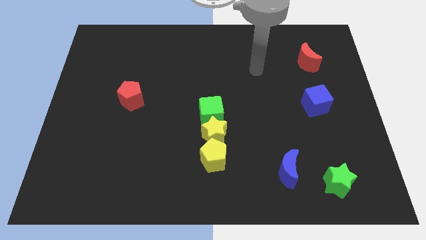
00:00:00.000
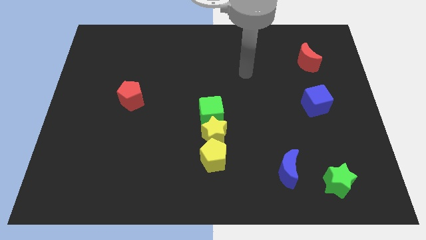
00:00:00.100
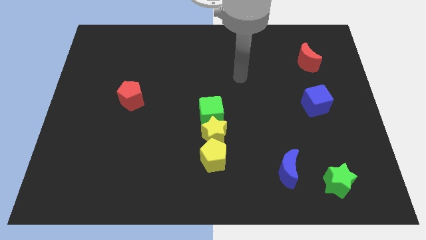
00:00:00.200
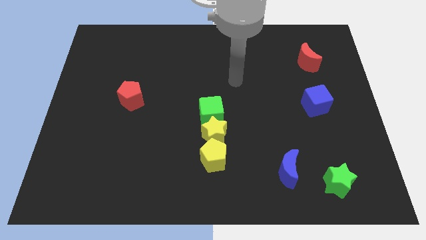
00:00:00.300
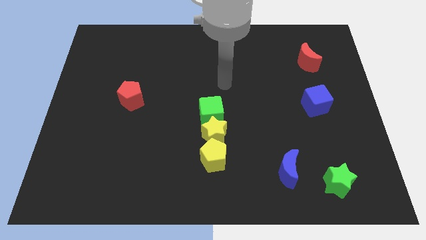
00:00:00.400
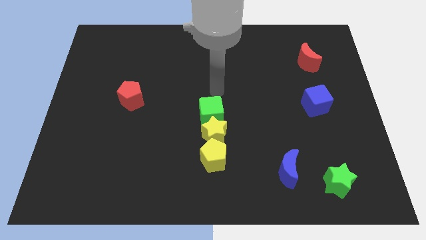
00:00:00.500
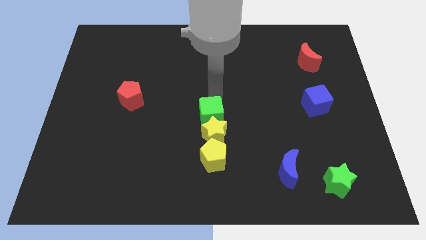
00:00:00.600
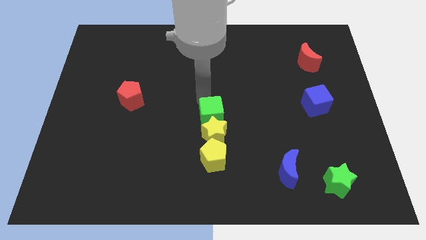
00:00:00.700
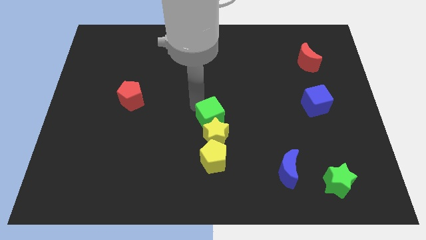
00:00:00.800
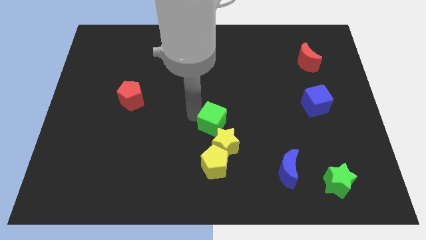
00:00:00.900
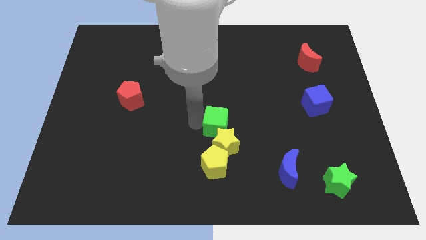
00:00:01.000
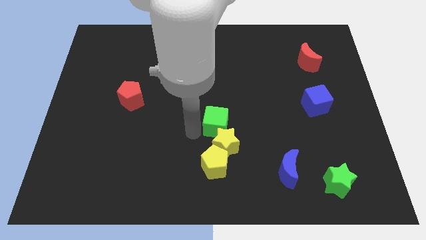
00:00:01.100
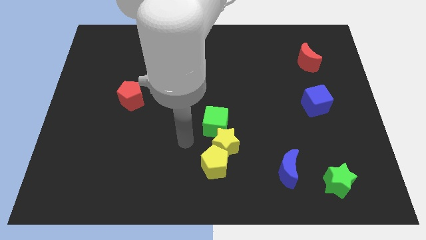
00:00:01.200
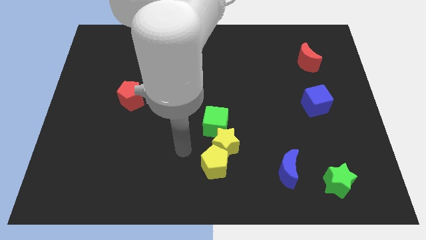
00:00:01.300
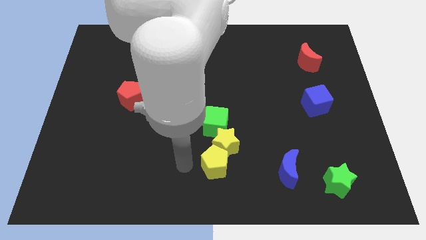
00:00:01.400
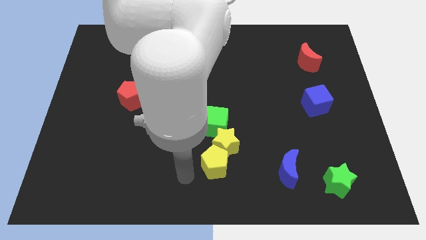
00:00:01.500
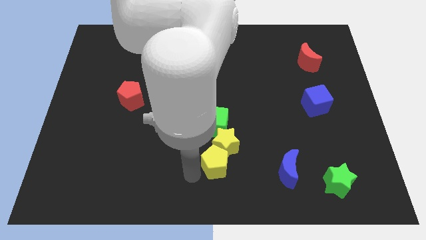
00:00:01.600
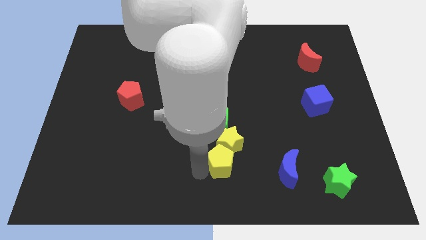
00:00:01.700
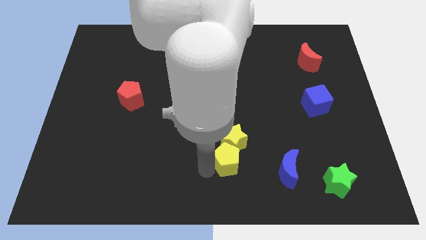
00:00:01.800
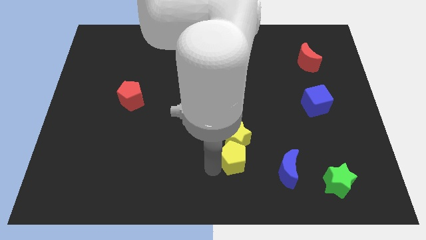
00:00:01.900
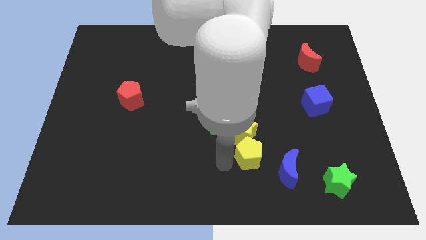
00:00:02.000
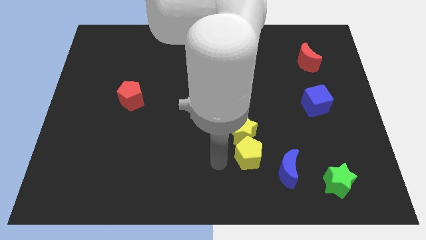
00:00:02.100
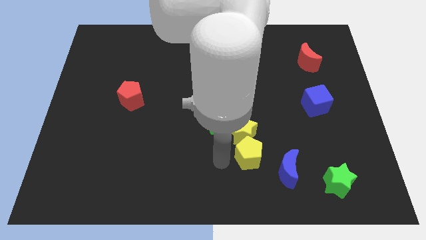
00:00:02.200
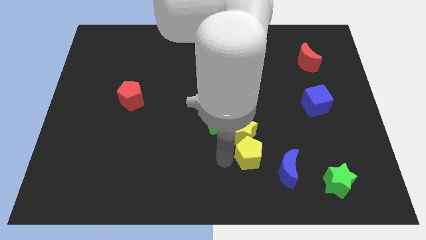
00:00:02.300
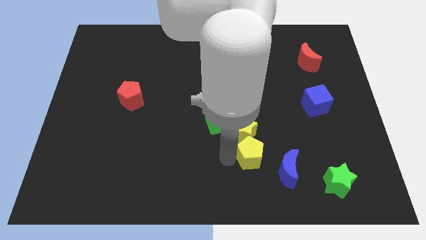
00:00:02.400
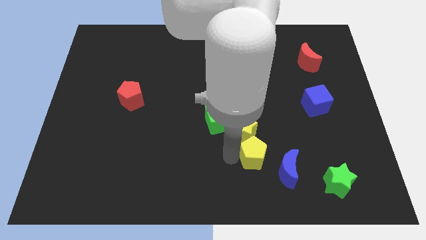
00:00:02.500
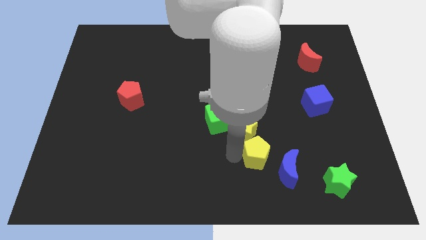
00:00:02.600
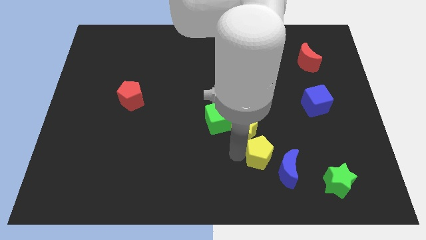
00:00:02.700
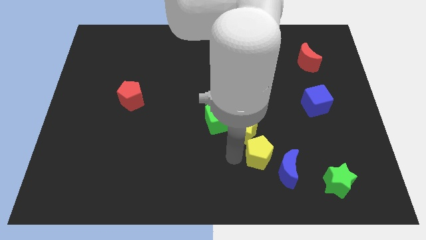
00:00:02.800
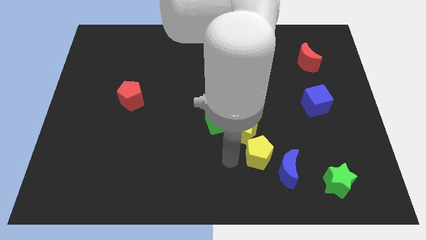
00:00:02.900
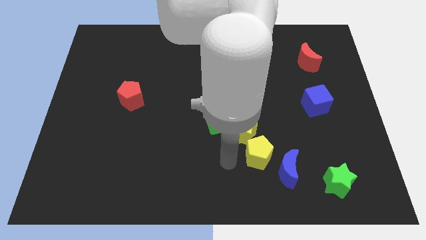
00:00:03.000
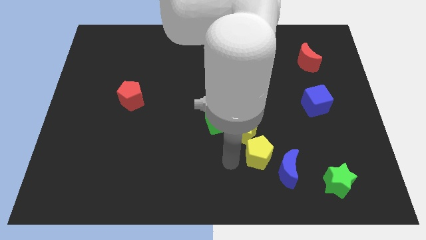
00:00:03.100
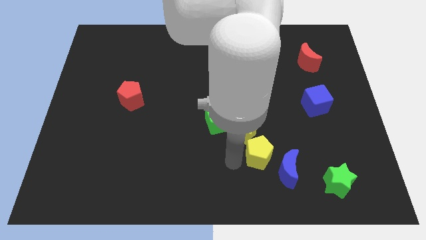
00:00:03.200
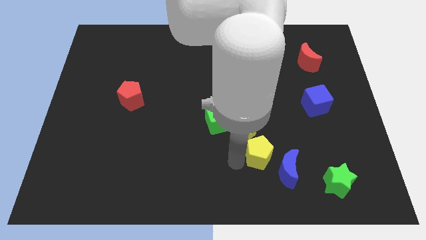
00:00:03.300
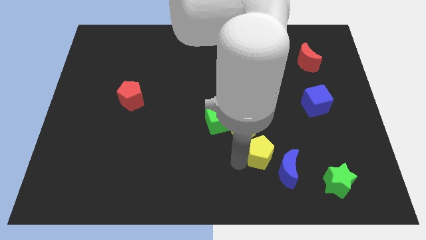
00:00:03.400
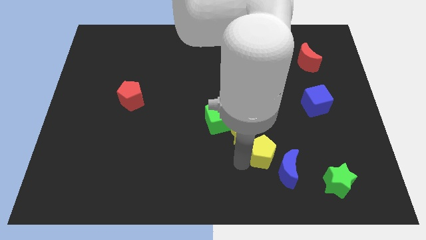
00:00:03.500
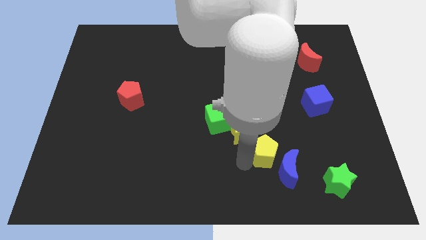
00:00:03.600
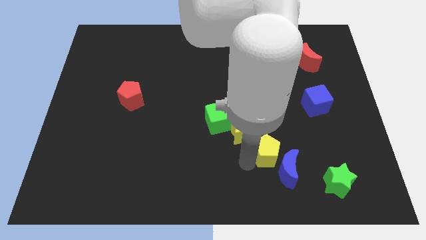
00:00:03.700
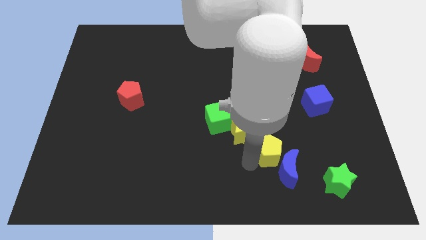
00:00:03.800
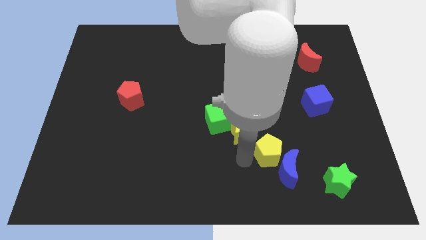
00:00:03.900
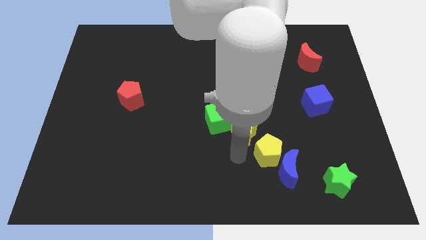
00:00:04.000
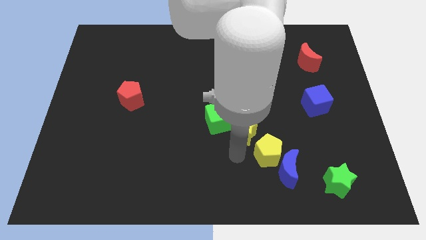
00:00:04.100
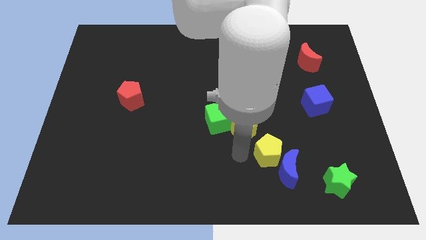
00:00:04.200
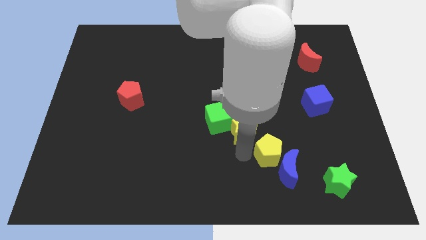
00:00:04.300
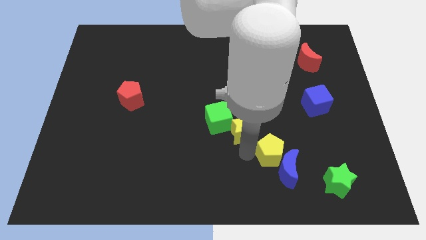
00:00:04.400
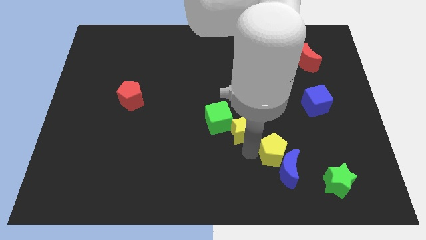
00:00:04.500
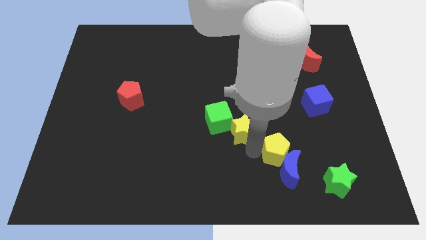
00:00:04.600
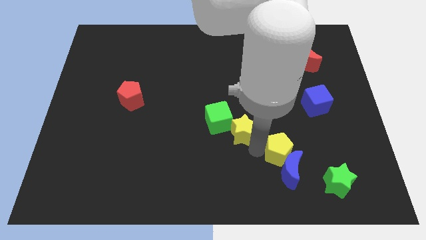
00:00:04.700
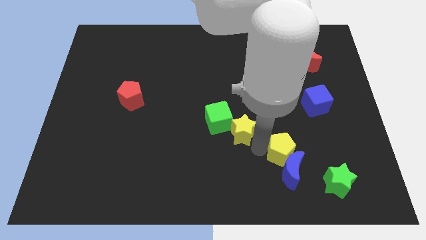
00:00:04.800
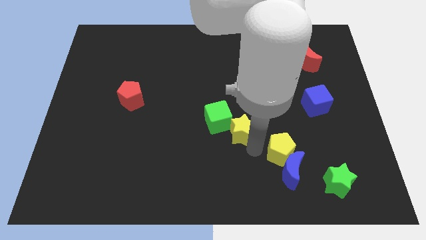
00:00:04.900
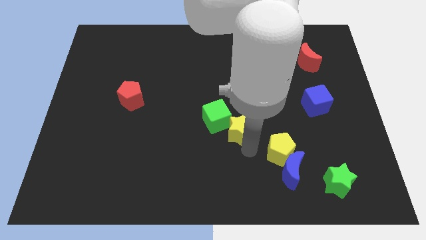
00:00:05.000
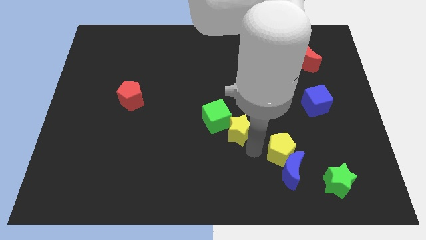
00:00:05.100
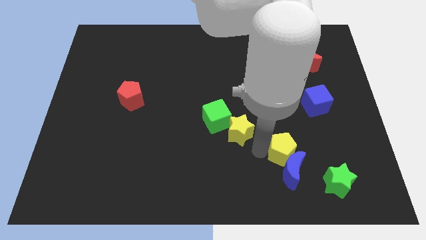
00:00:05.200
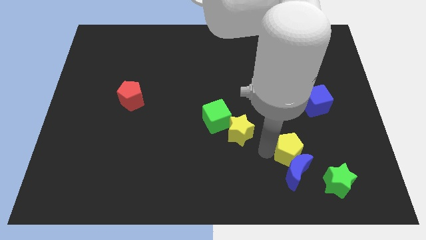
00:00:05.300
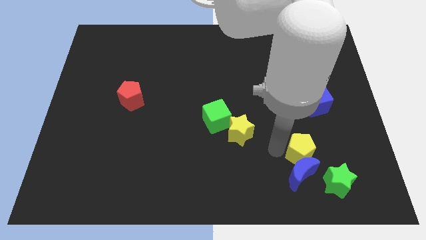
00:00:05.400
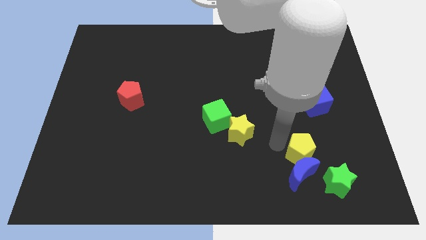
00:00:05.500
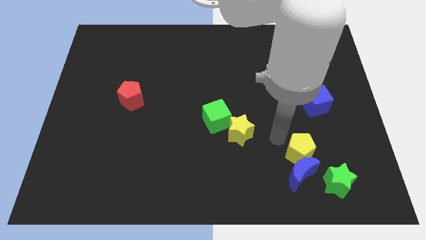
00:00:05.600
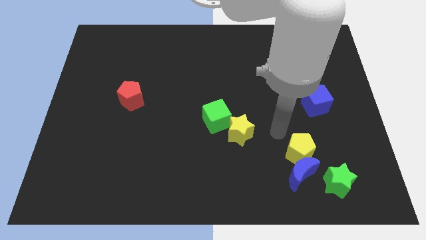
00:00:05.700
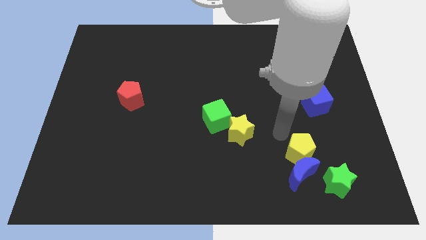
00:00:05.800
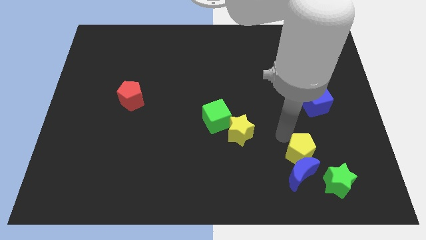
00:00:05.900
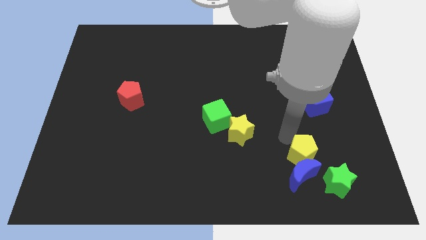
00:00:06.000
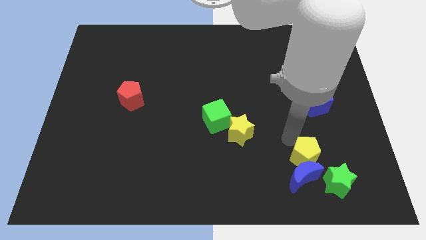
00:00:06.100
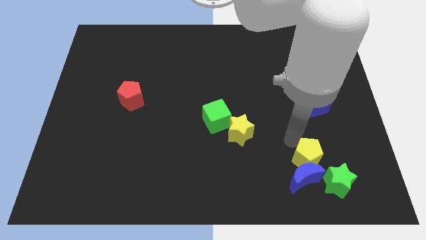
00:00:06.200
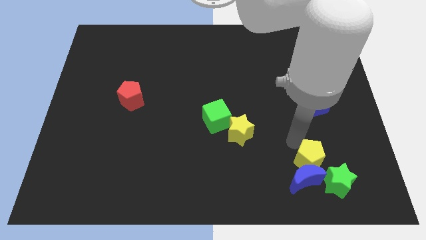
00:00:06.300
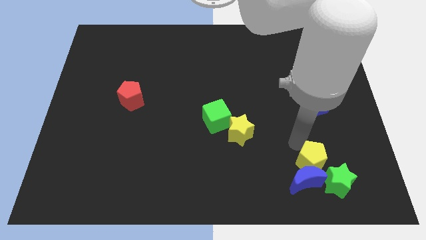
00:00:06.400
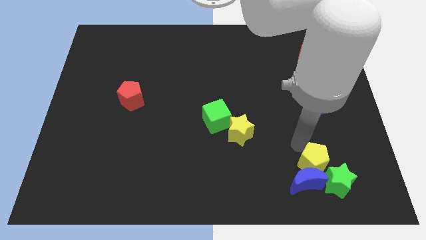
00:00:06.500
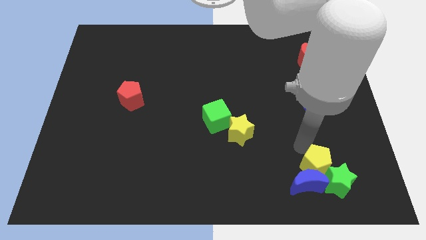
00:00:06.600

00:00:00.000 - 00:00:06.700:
push the yellow pentagon to the green star

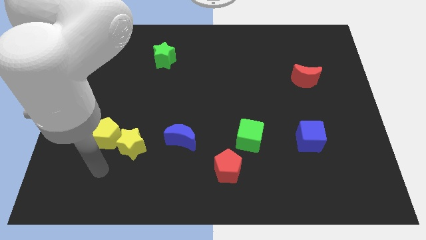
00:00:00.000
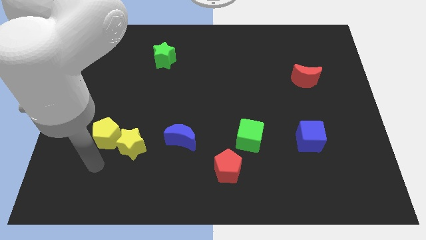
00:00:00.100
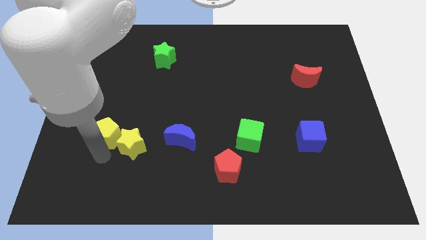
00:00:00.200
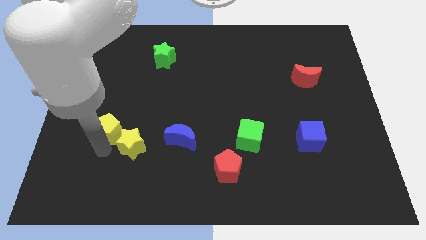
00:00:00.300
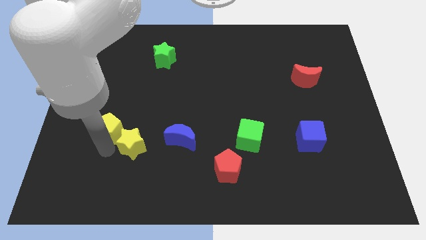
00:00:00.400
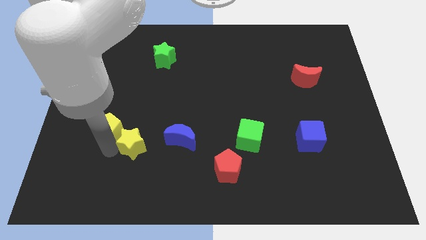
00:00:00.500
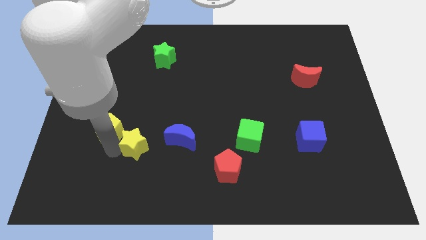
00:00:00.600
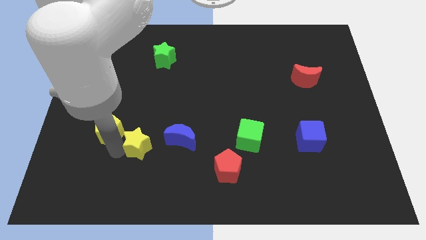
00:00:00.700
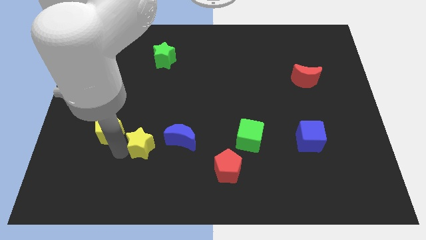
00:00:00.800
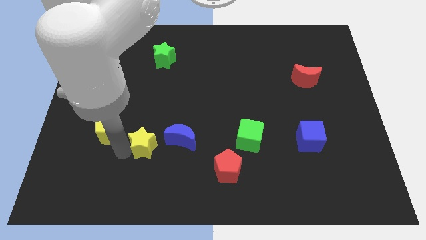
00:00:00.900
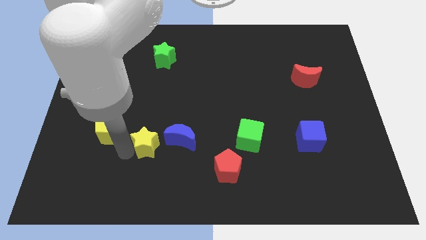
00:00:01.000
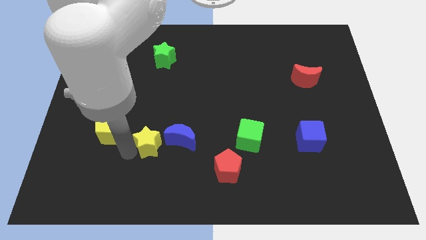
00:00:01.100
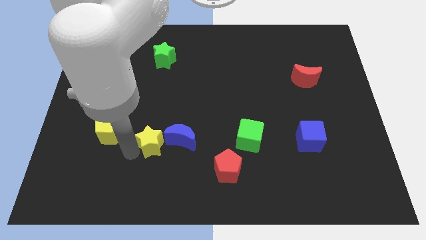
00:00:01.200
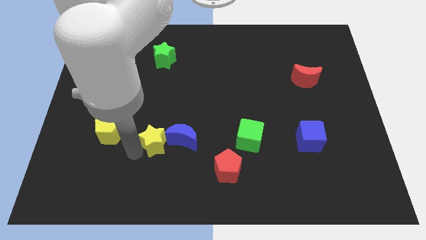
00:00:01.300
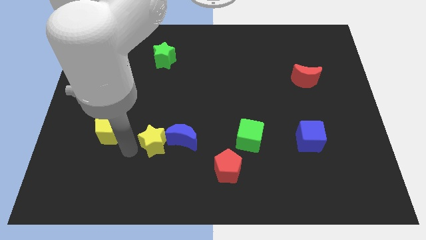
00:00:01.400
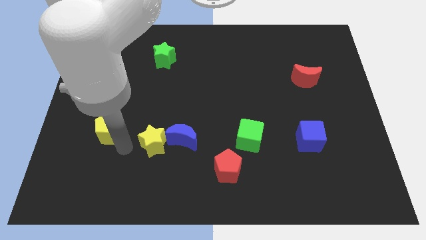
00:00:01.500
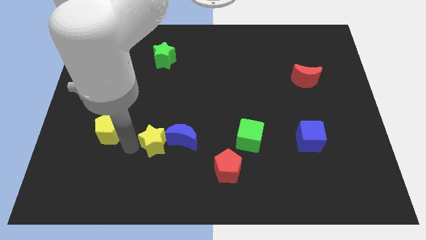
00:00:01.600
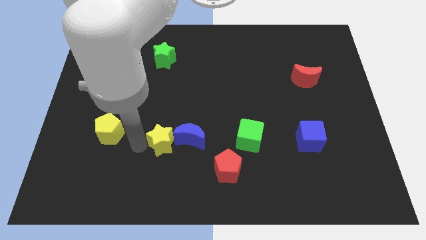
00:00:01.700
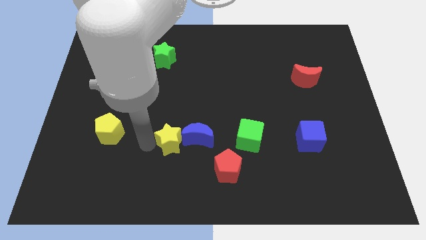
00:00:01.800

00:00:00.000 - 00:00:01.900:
push the yellow star next to the blue moon
